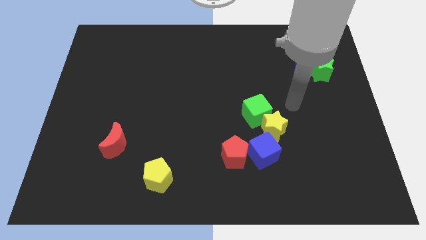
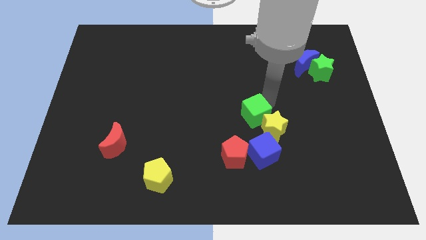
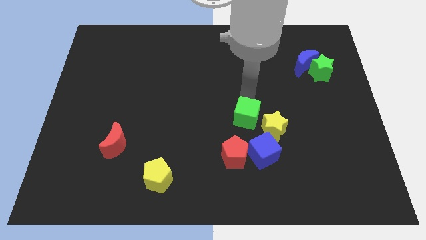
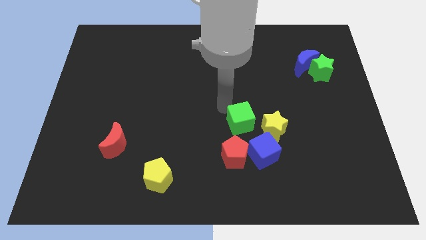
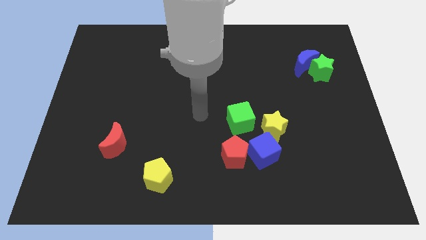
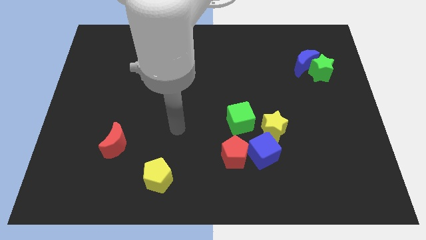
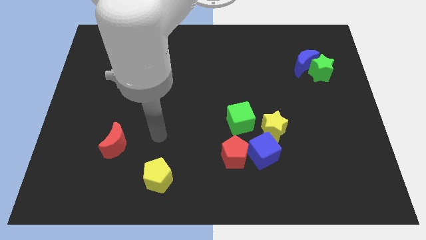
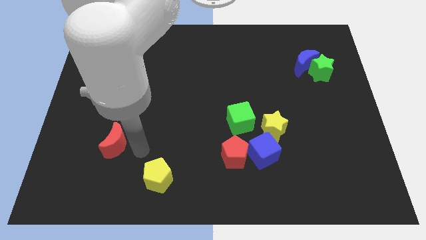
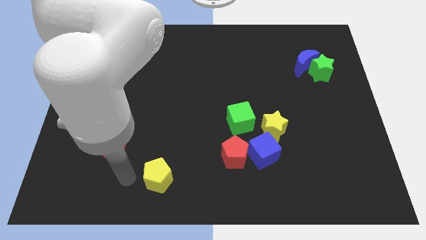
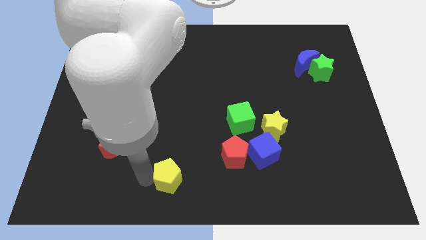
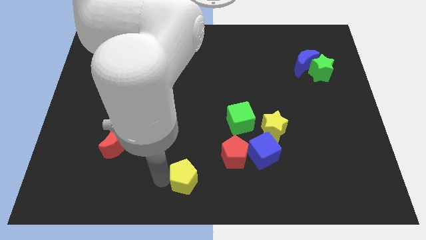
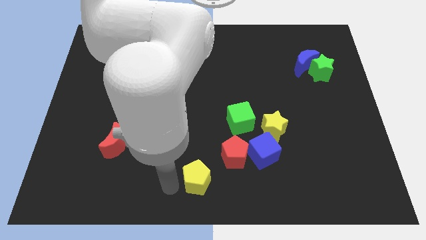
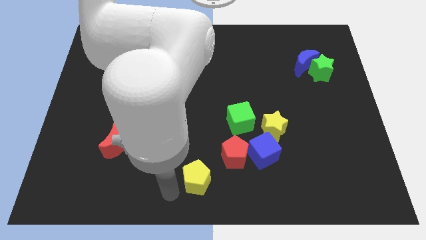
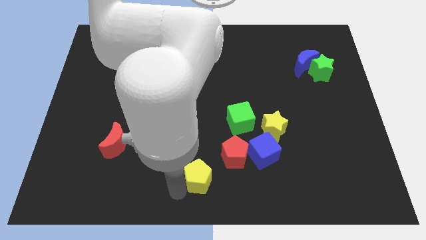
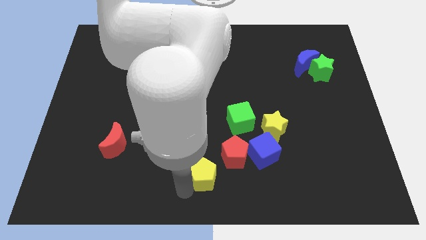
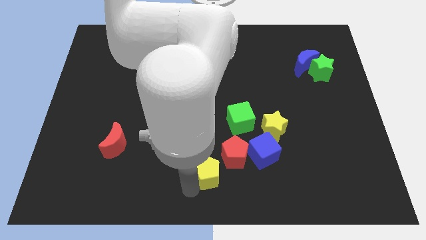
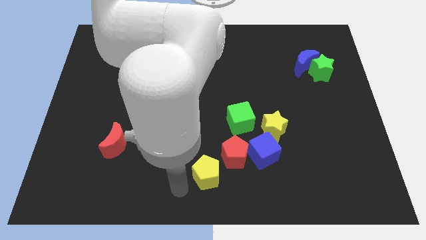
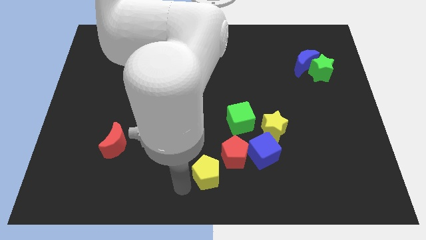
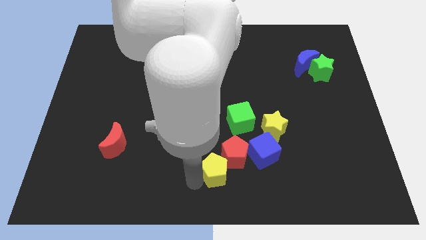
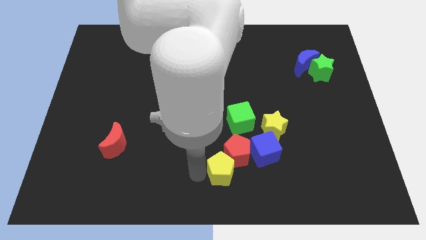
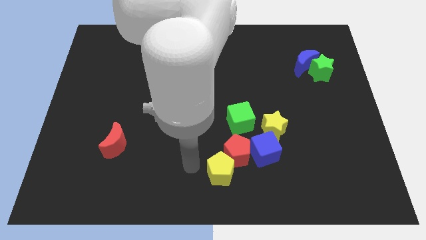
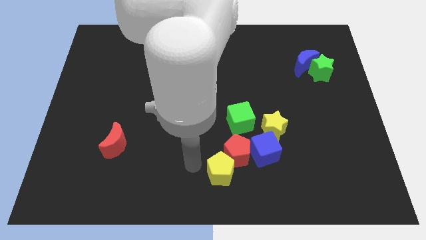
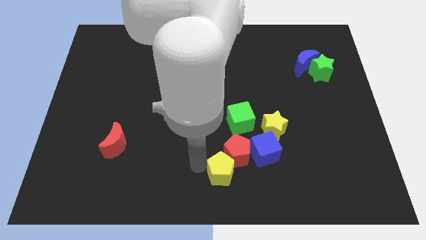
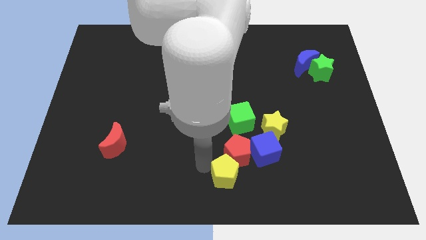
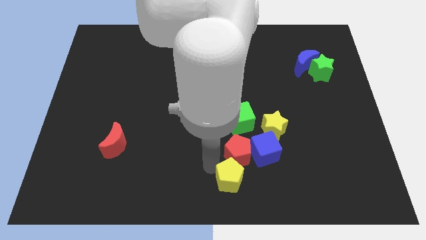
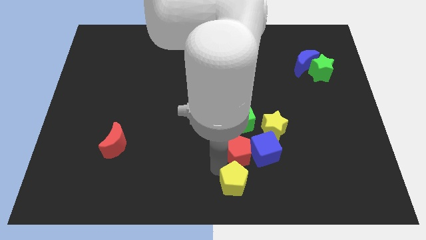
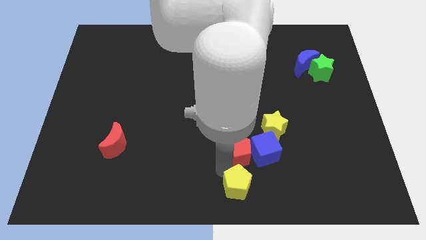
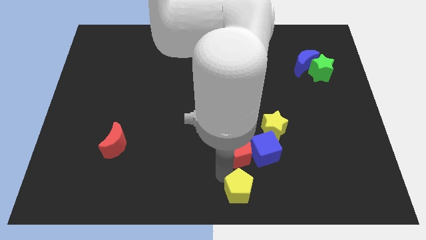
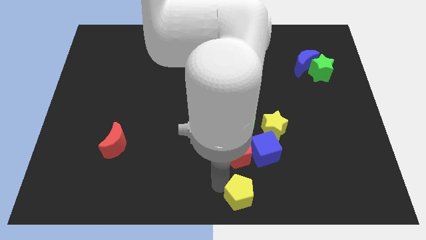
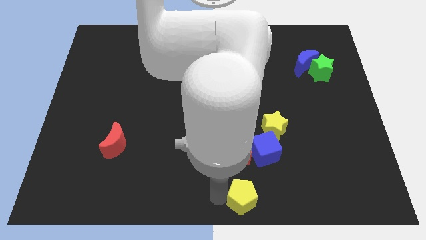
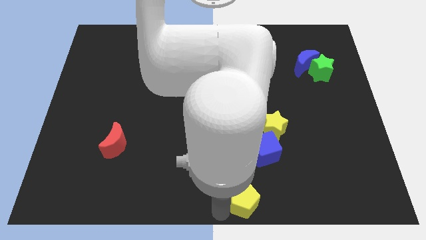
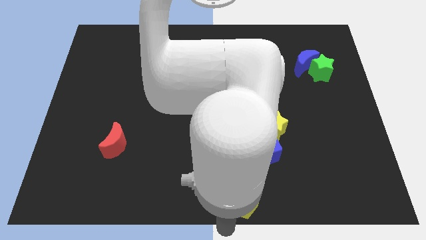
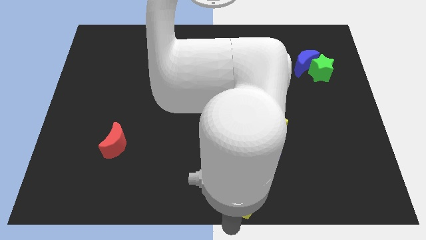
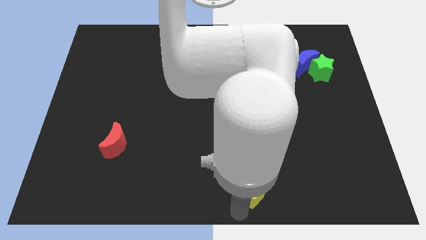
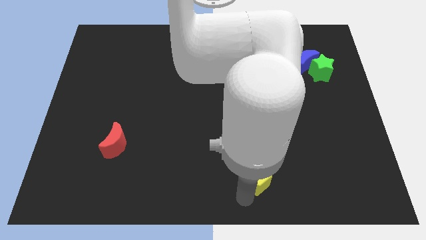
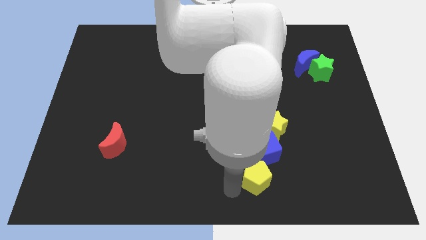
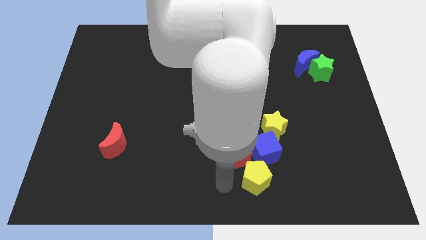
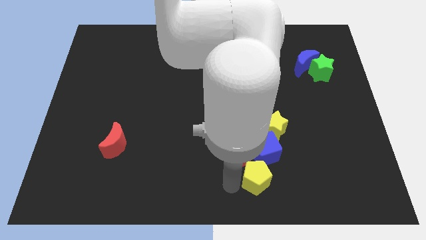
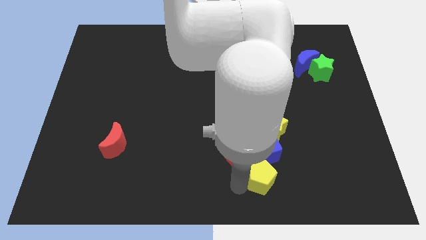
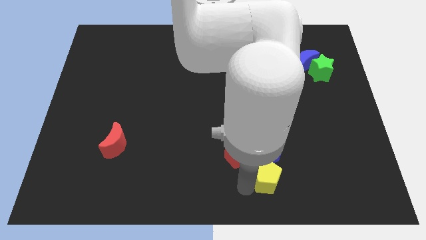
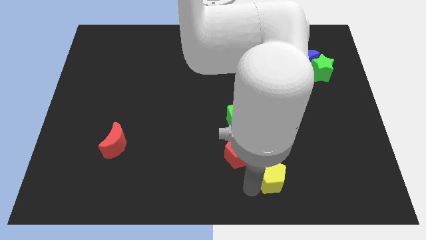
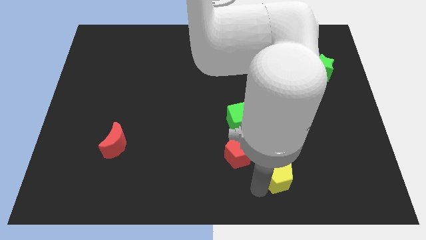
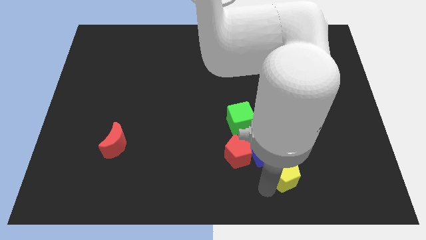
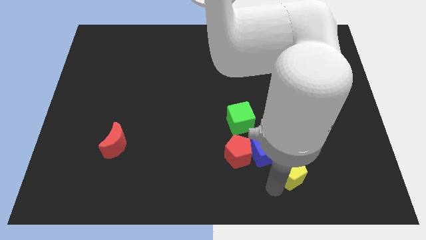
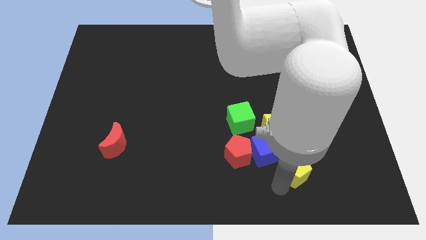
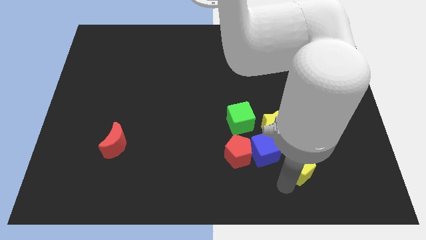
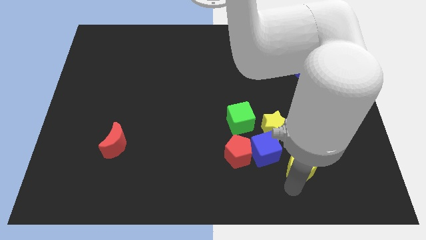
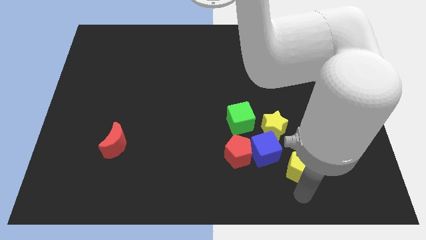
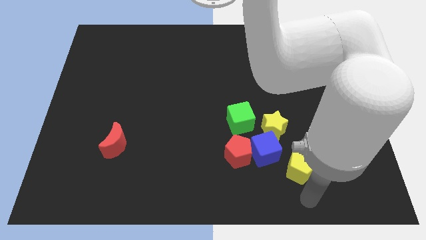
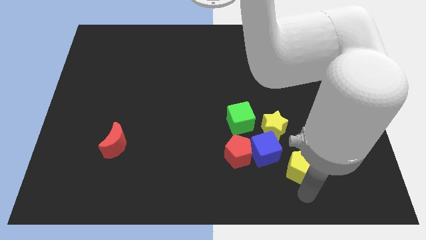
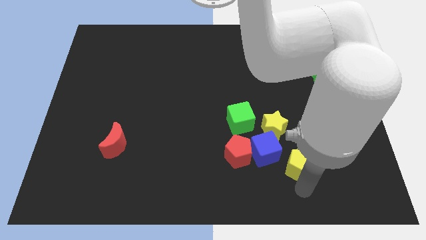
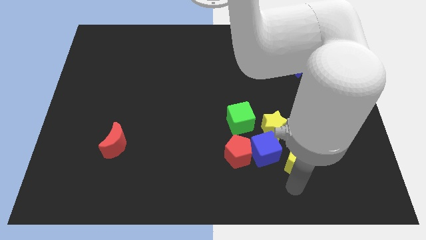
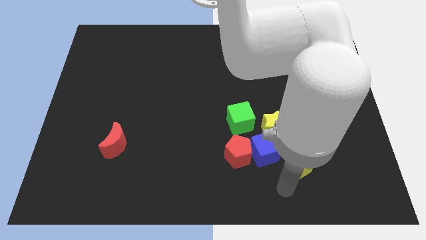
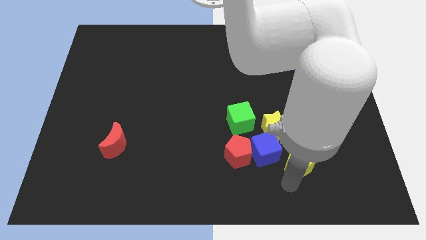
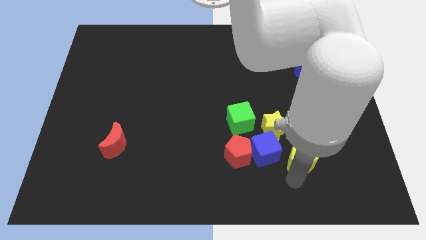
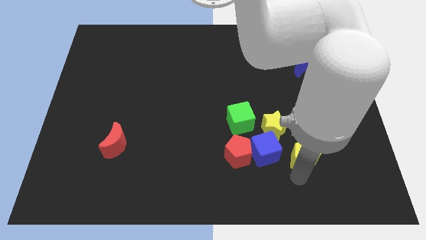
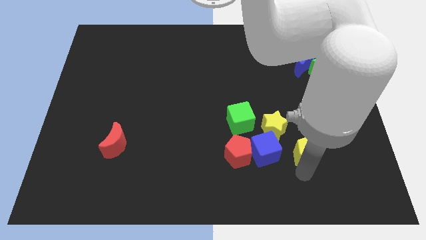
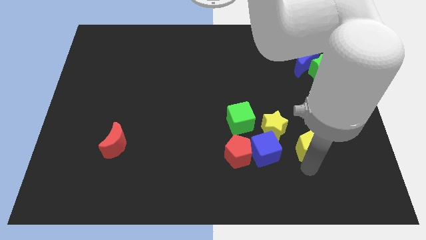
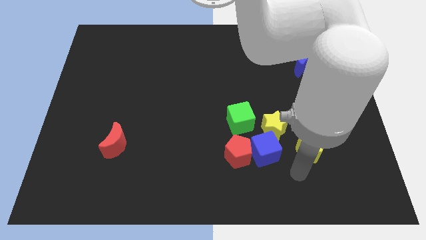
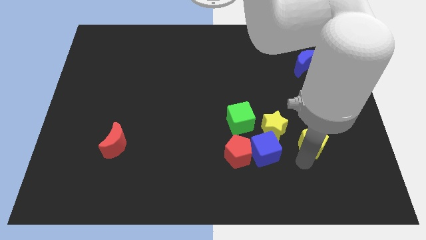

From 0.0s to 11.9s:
slide the yellow pentagon right of the yellow star
